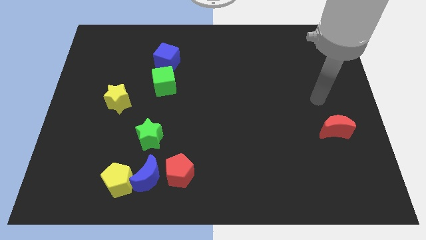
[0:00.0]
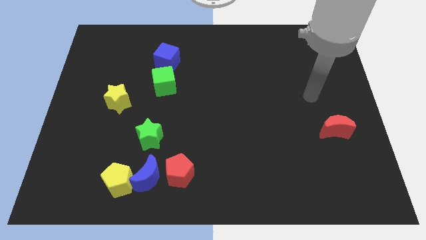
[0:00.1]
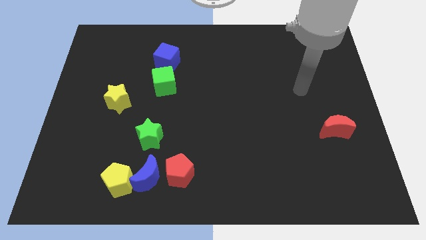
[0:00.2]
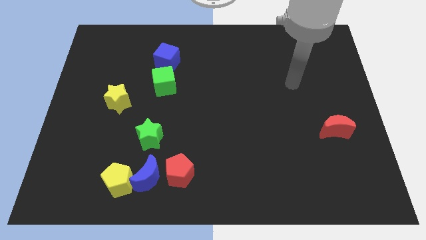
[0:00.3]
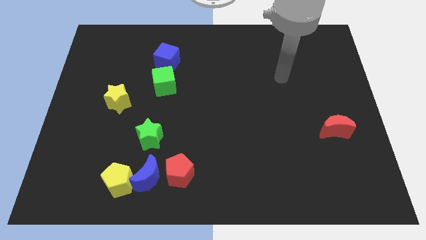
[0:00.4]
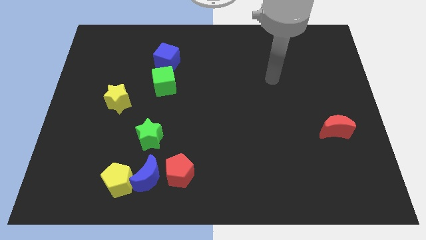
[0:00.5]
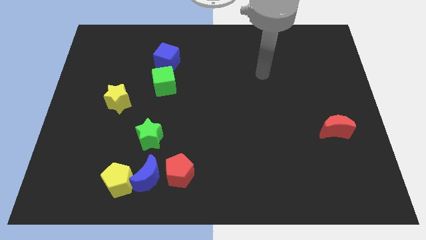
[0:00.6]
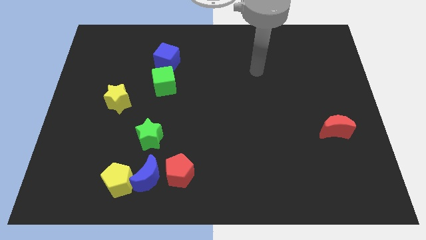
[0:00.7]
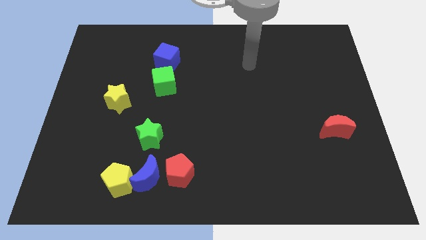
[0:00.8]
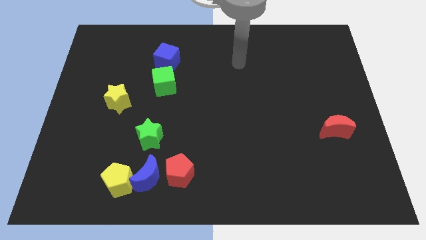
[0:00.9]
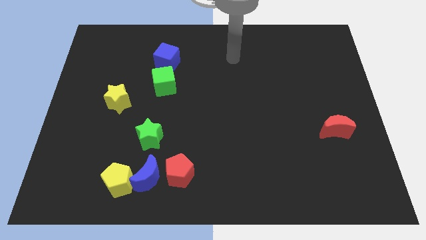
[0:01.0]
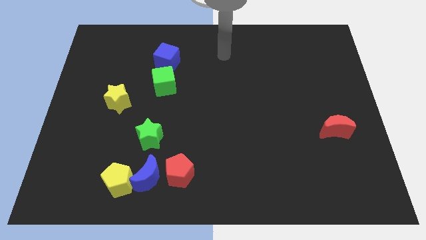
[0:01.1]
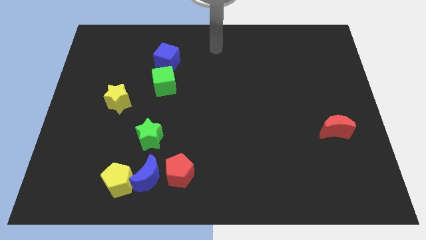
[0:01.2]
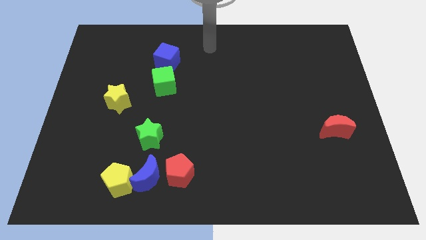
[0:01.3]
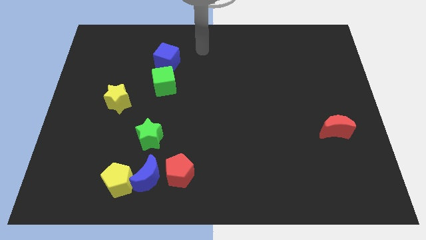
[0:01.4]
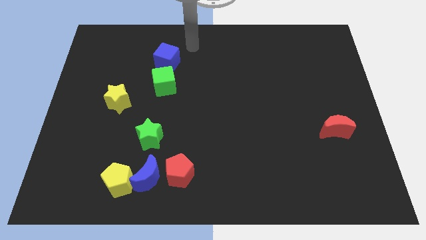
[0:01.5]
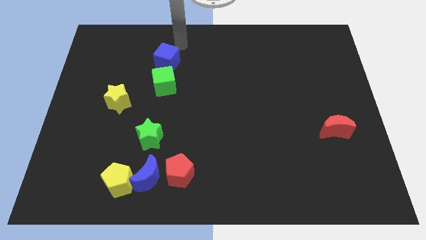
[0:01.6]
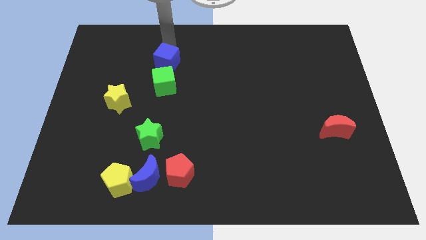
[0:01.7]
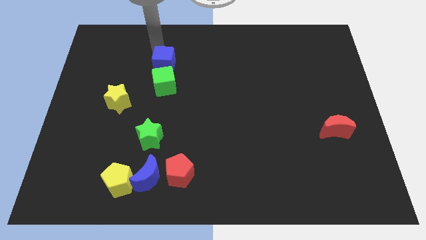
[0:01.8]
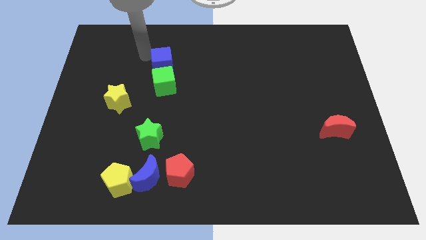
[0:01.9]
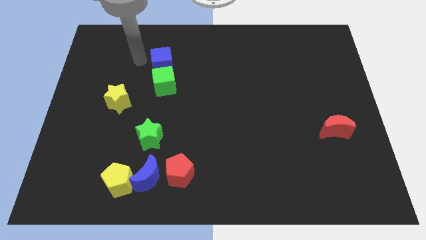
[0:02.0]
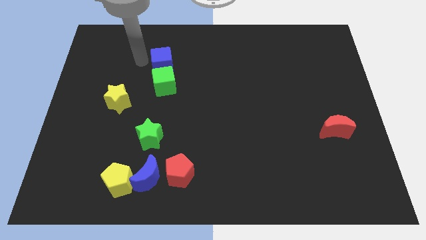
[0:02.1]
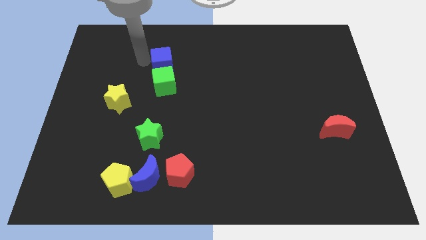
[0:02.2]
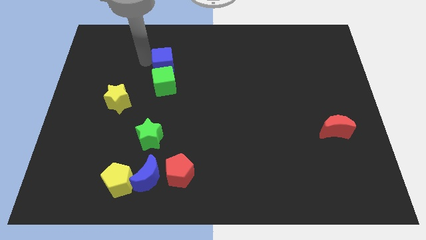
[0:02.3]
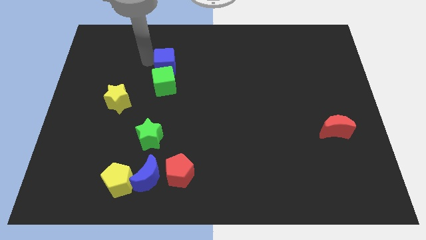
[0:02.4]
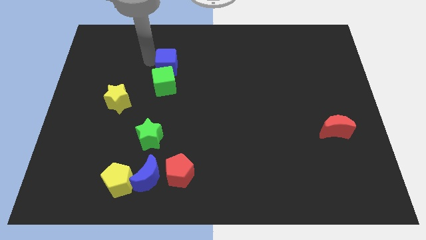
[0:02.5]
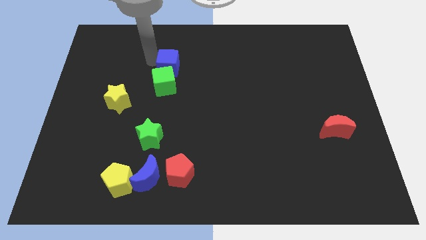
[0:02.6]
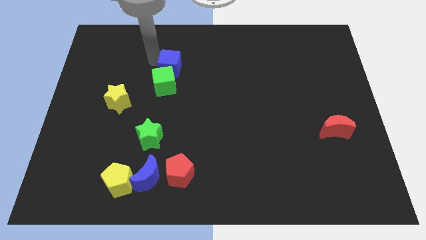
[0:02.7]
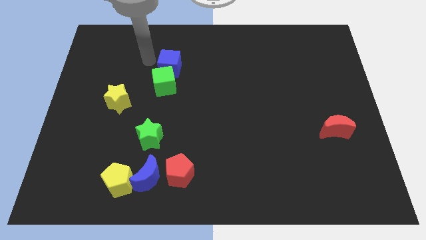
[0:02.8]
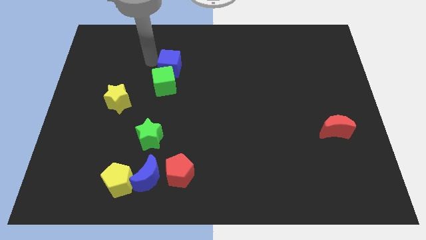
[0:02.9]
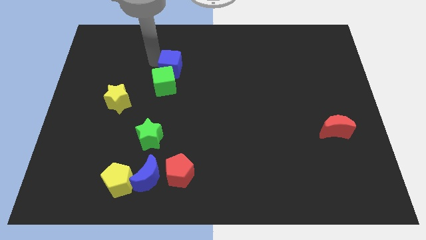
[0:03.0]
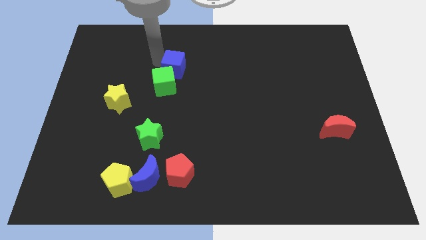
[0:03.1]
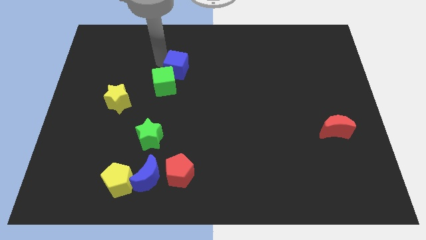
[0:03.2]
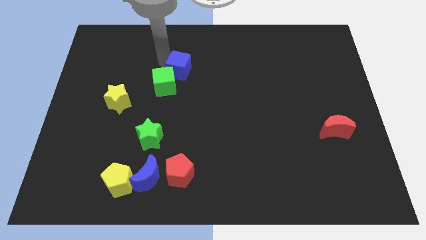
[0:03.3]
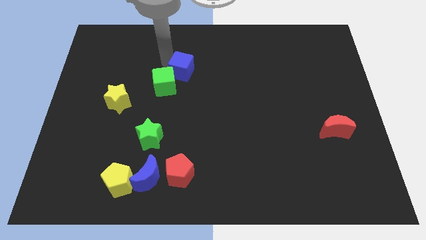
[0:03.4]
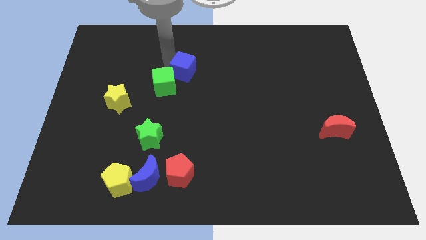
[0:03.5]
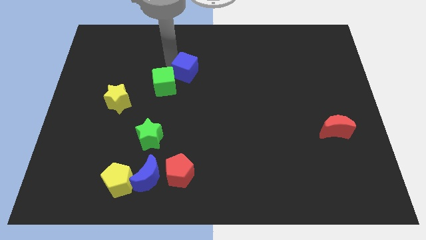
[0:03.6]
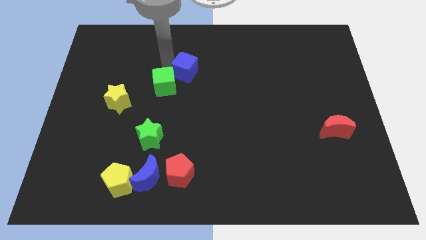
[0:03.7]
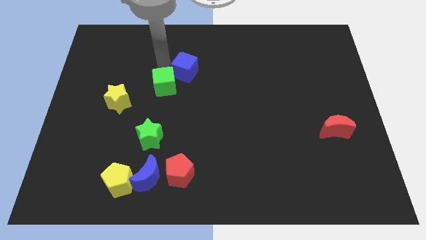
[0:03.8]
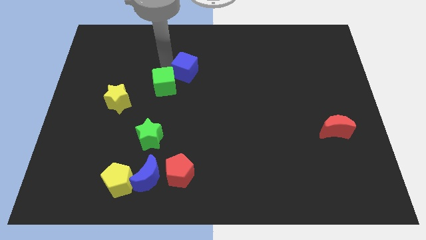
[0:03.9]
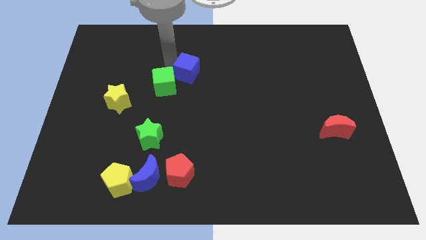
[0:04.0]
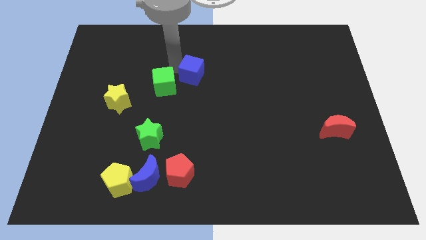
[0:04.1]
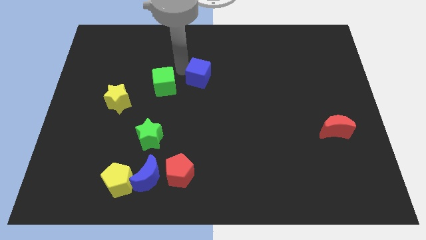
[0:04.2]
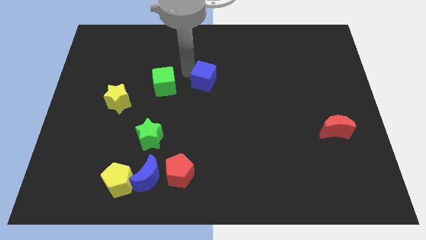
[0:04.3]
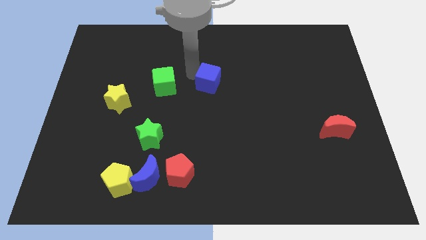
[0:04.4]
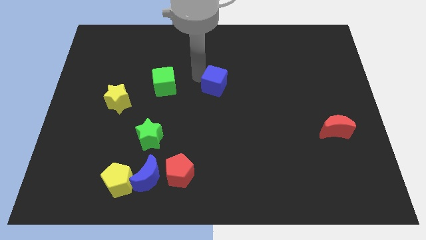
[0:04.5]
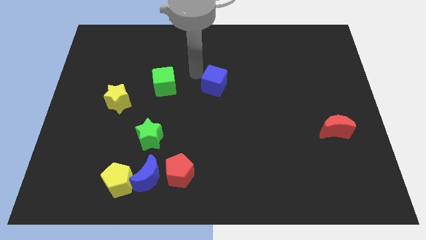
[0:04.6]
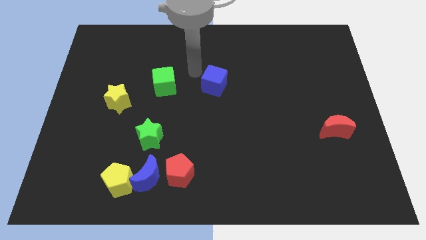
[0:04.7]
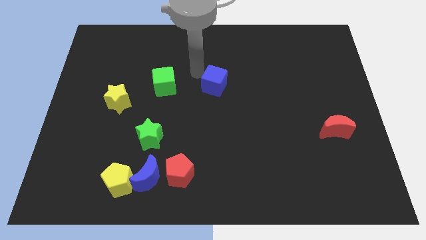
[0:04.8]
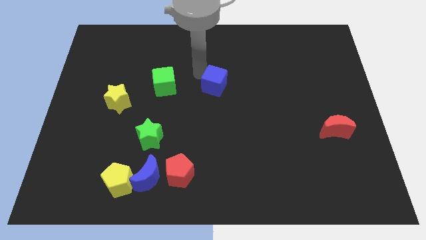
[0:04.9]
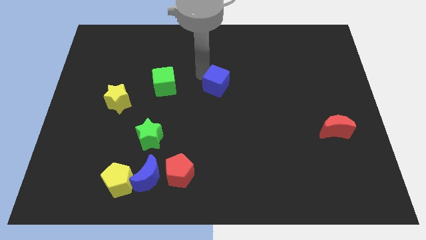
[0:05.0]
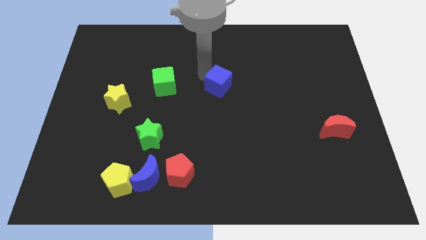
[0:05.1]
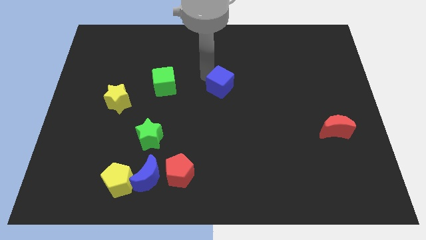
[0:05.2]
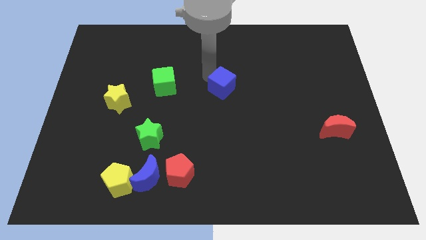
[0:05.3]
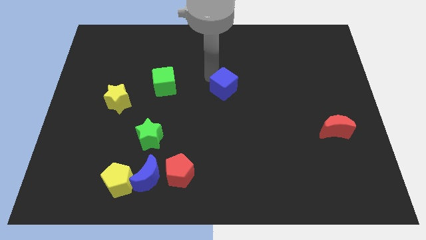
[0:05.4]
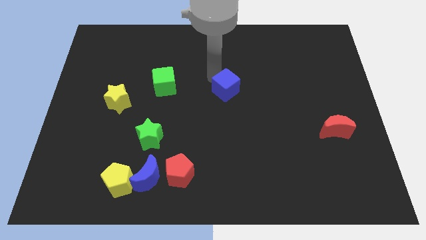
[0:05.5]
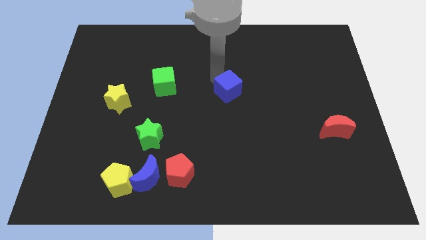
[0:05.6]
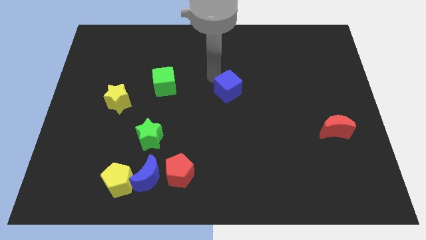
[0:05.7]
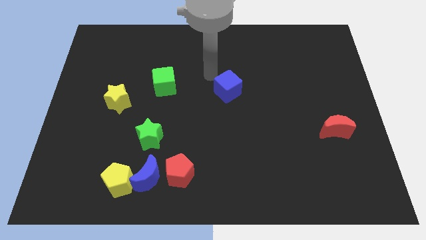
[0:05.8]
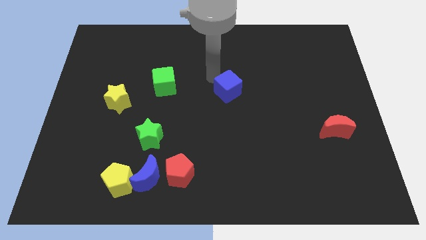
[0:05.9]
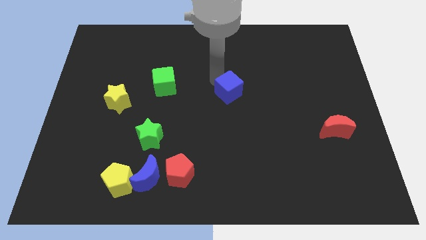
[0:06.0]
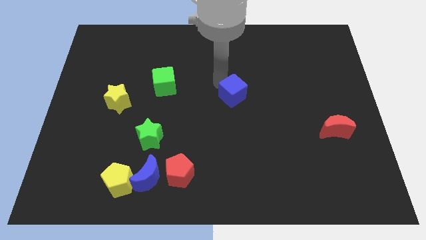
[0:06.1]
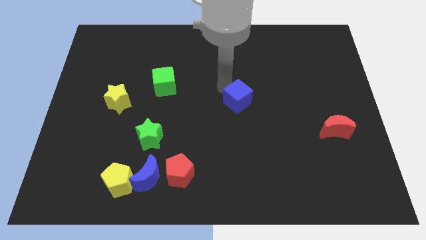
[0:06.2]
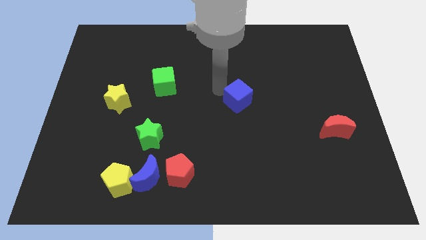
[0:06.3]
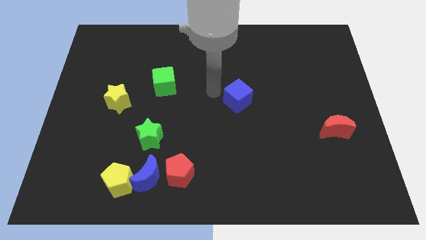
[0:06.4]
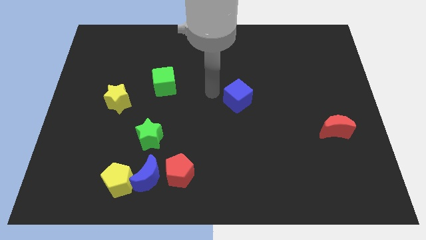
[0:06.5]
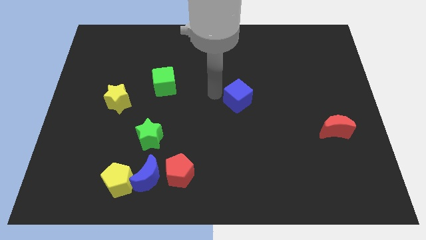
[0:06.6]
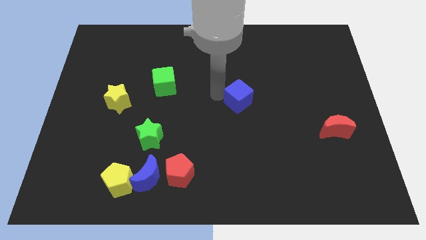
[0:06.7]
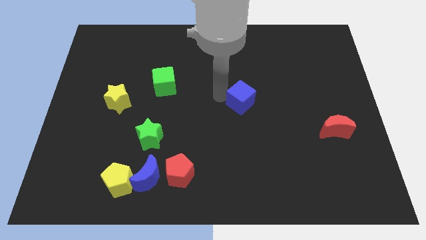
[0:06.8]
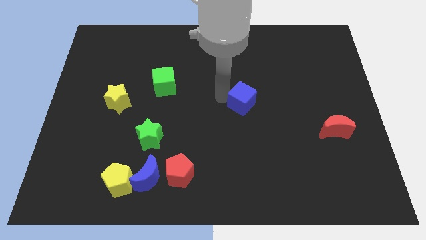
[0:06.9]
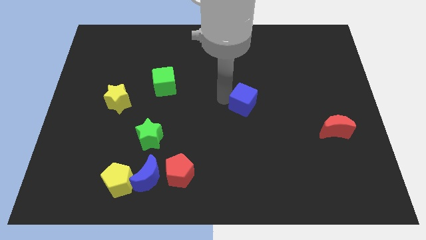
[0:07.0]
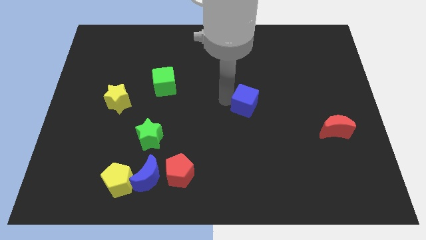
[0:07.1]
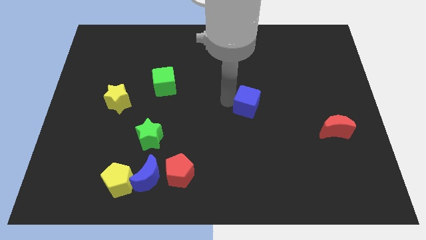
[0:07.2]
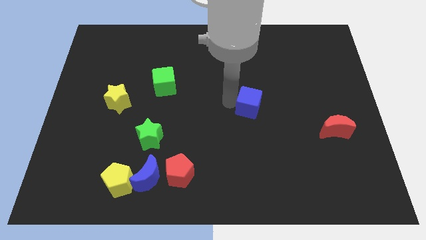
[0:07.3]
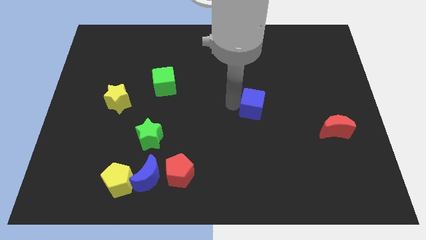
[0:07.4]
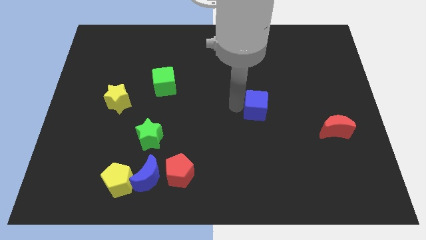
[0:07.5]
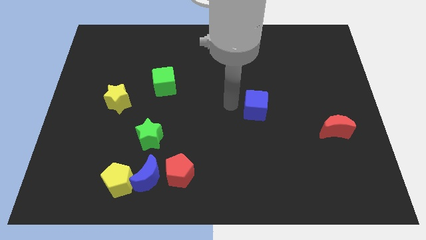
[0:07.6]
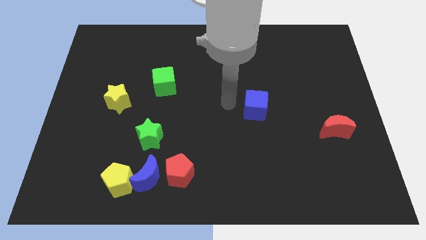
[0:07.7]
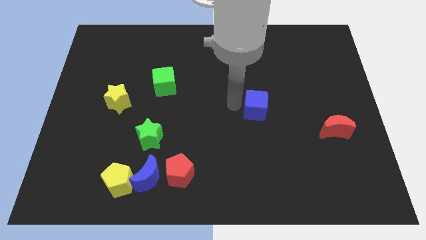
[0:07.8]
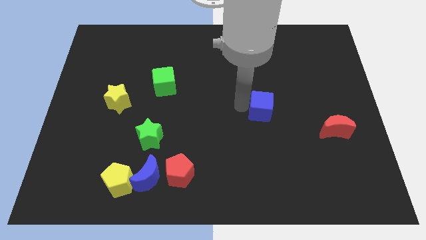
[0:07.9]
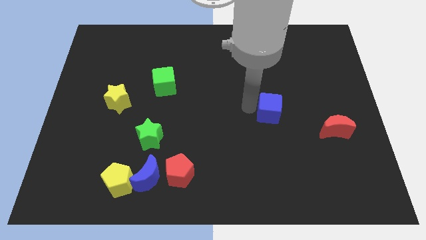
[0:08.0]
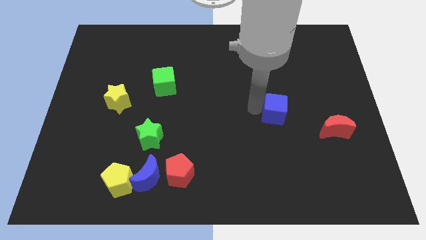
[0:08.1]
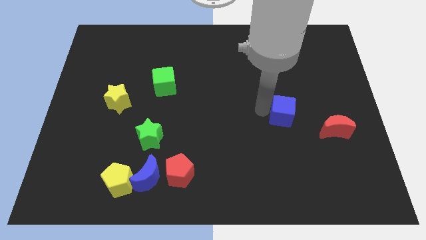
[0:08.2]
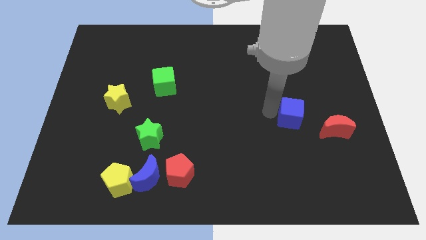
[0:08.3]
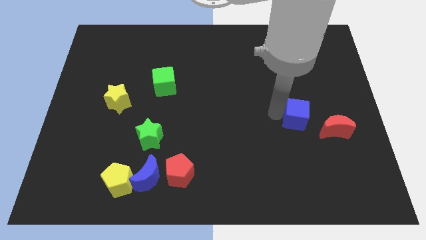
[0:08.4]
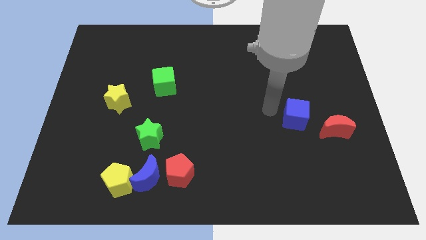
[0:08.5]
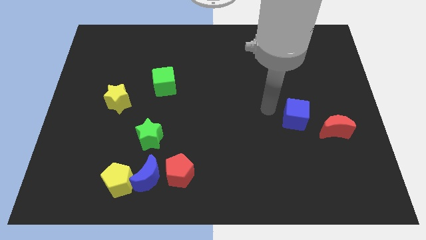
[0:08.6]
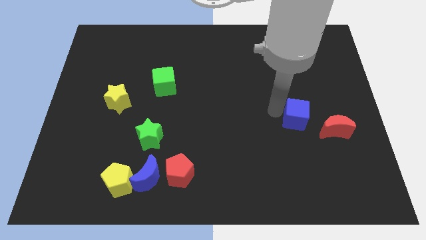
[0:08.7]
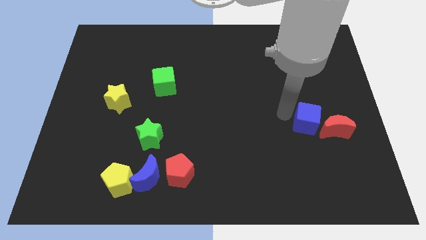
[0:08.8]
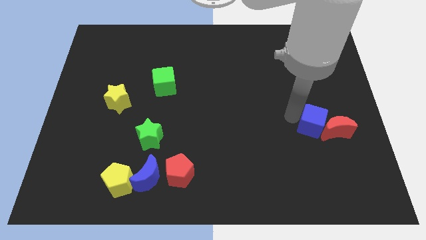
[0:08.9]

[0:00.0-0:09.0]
slide the blue cube towards the red moon
